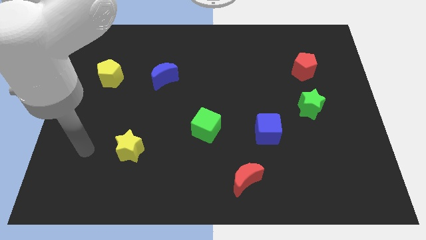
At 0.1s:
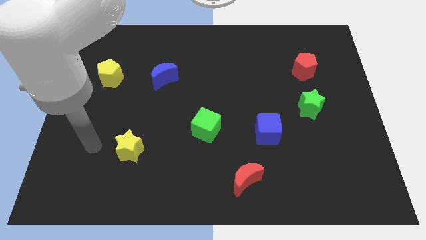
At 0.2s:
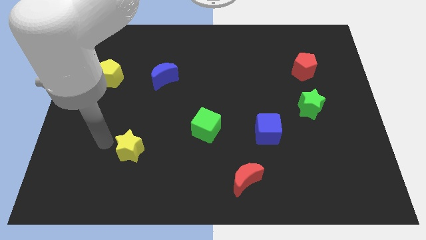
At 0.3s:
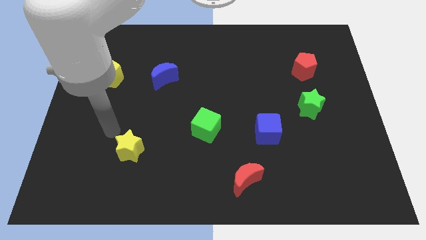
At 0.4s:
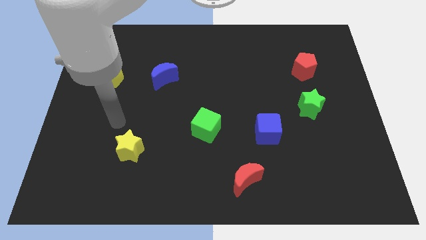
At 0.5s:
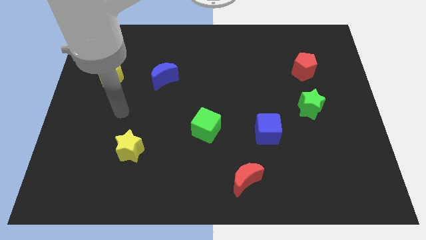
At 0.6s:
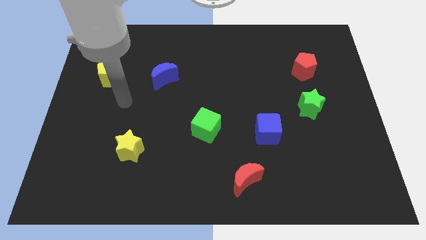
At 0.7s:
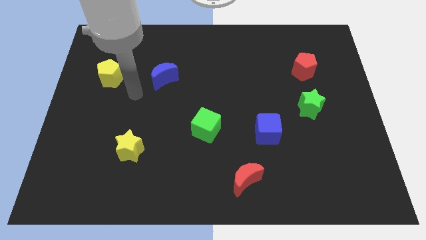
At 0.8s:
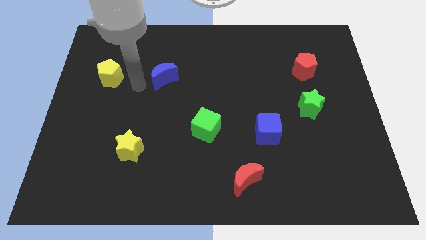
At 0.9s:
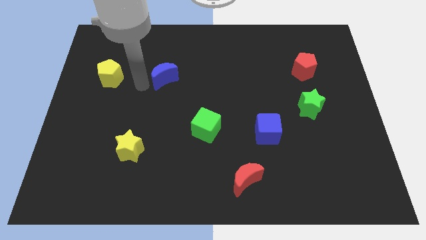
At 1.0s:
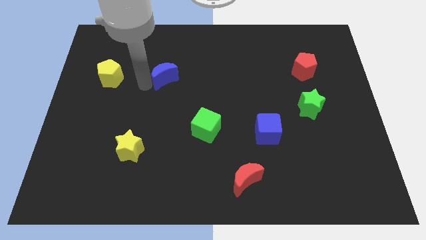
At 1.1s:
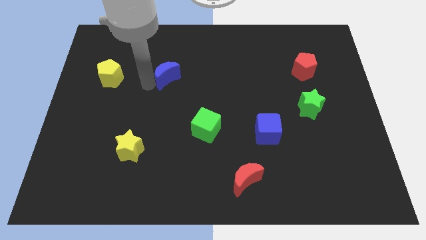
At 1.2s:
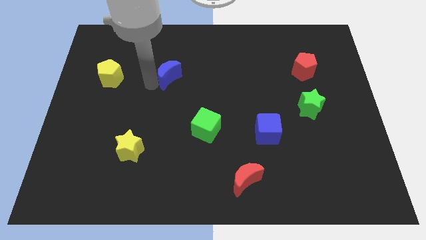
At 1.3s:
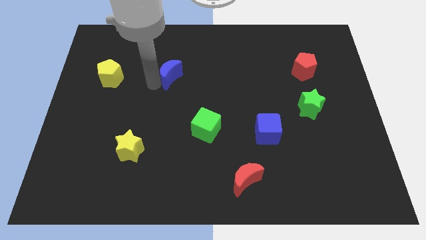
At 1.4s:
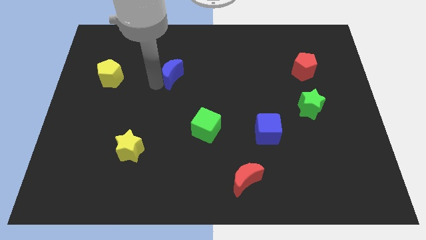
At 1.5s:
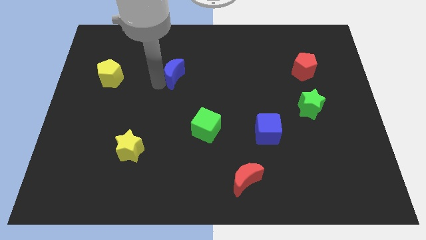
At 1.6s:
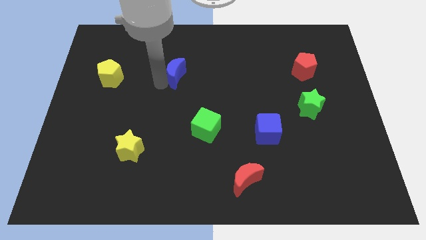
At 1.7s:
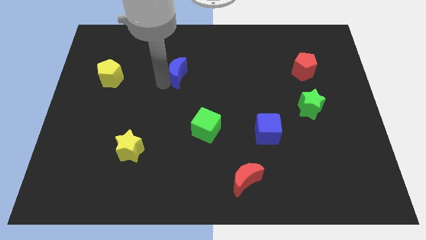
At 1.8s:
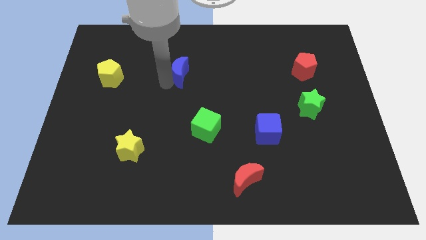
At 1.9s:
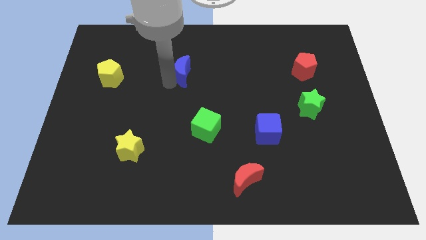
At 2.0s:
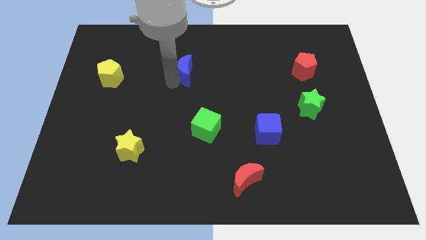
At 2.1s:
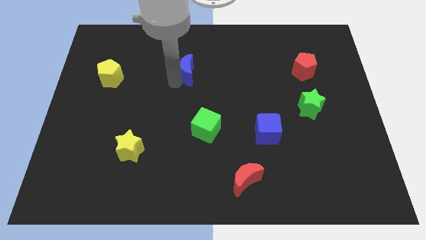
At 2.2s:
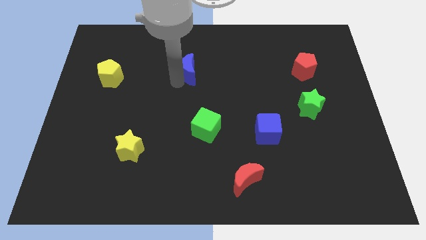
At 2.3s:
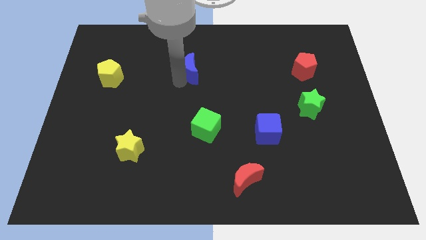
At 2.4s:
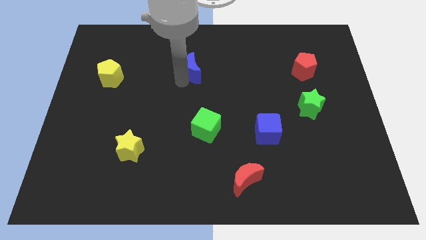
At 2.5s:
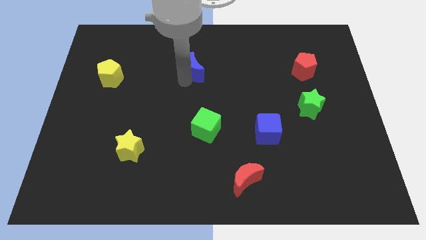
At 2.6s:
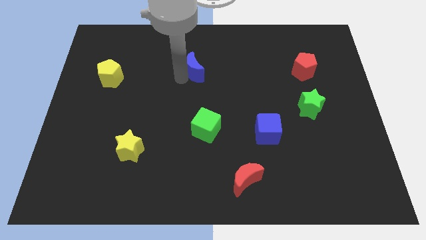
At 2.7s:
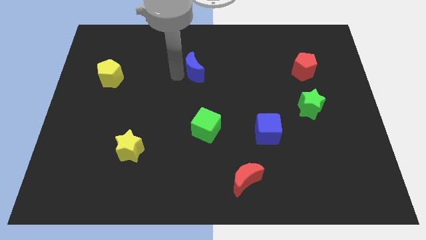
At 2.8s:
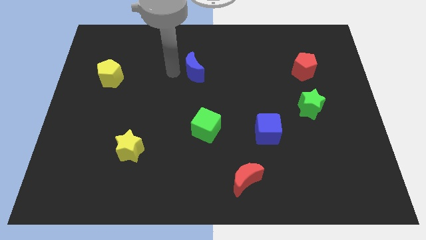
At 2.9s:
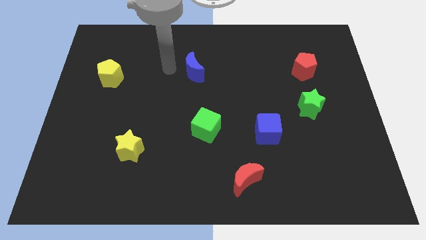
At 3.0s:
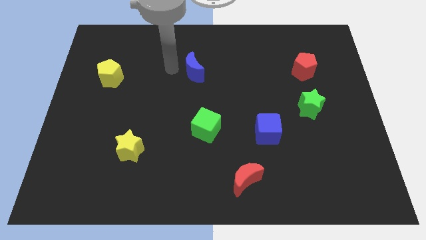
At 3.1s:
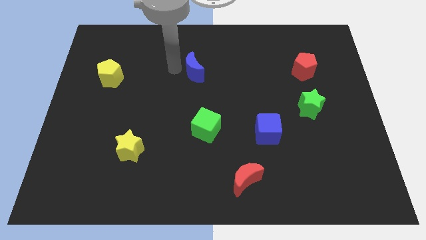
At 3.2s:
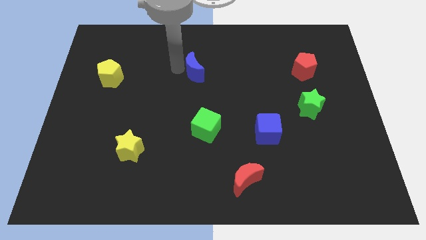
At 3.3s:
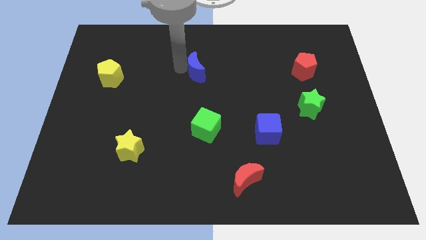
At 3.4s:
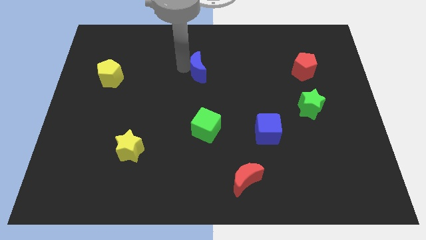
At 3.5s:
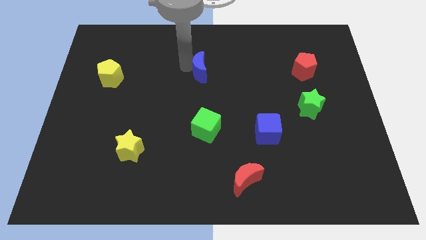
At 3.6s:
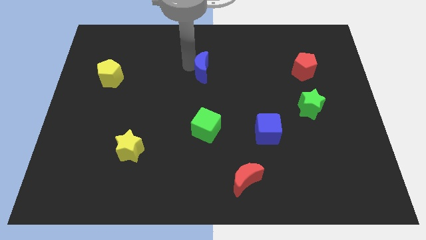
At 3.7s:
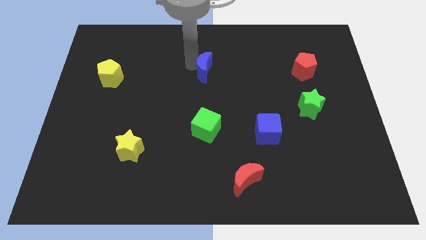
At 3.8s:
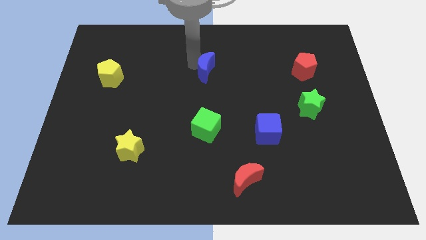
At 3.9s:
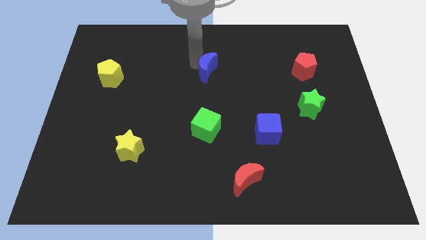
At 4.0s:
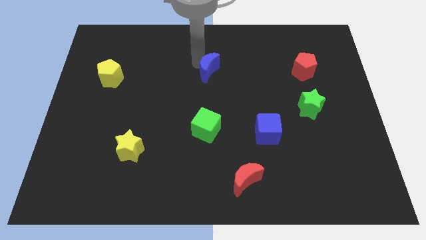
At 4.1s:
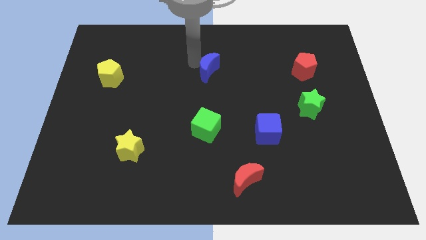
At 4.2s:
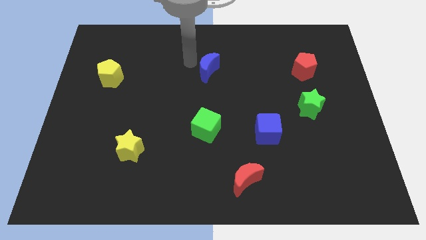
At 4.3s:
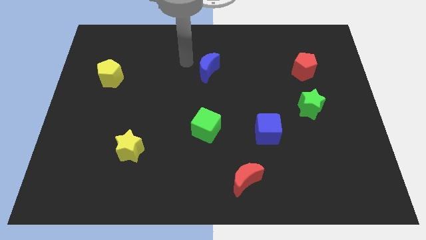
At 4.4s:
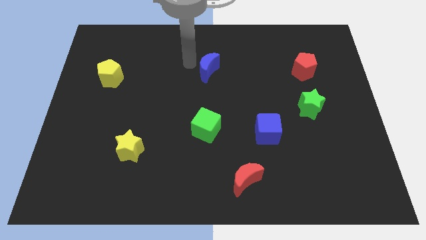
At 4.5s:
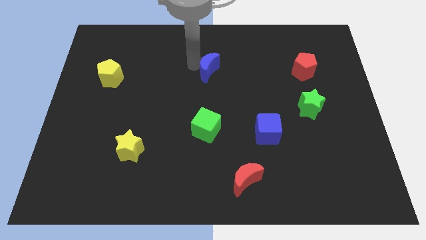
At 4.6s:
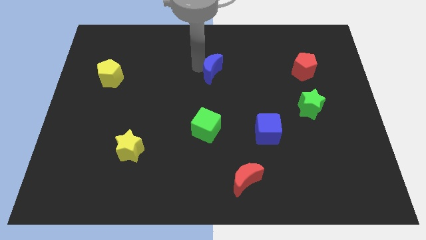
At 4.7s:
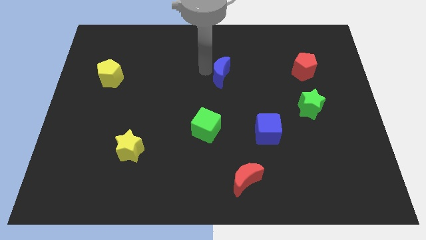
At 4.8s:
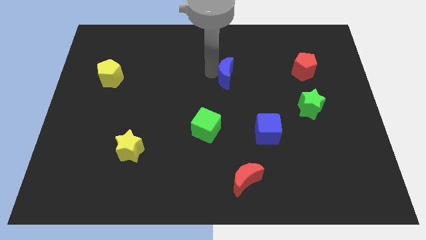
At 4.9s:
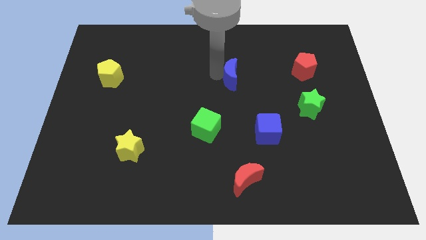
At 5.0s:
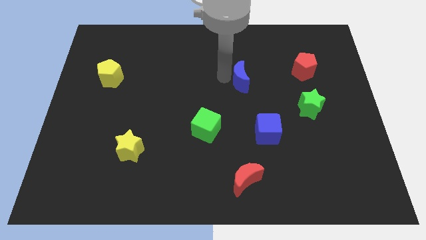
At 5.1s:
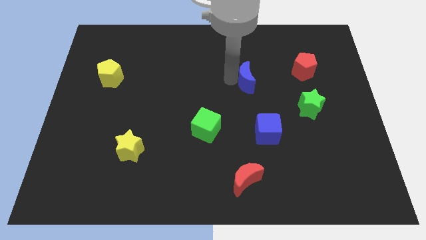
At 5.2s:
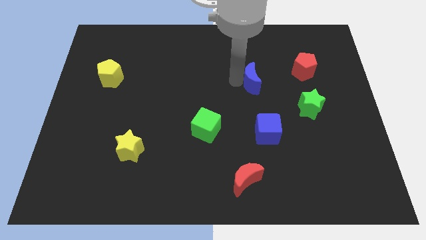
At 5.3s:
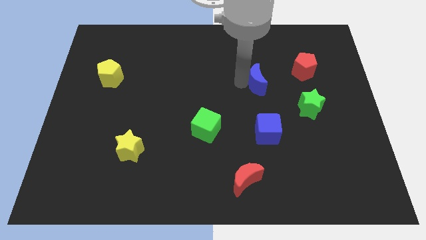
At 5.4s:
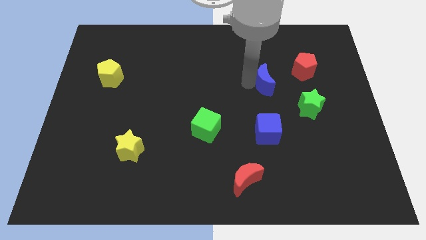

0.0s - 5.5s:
put the blue moon to the bottom left of the red pentagon

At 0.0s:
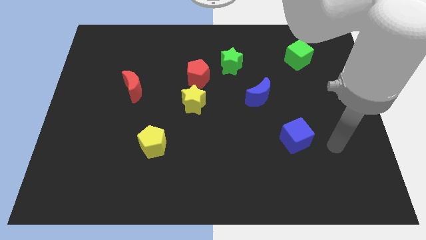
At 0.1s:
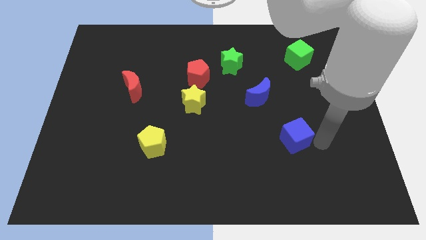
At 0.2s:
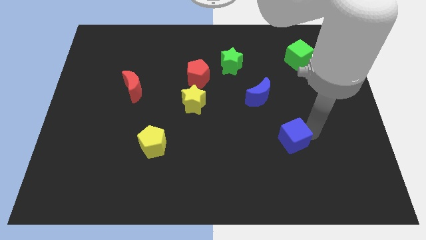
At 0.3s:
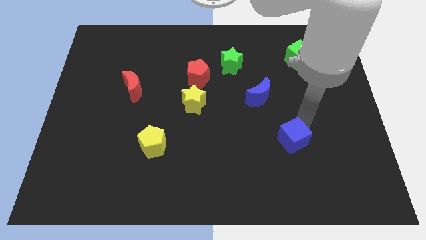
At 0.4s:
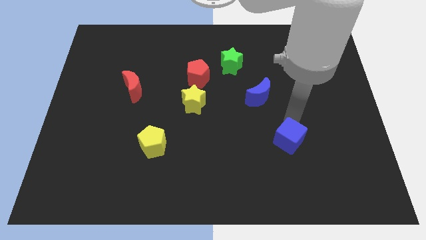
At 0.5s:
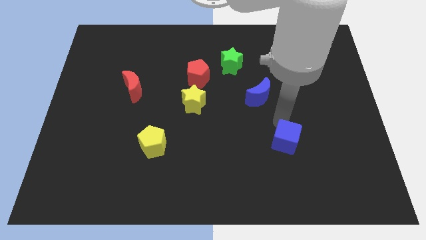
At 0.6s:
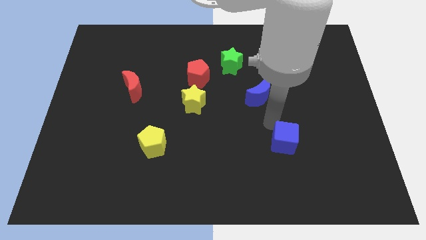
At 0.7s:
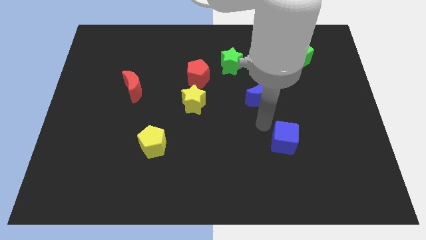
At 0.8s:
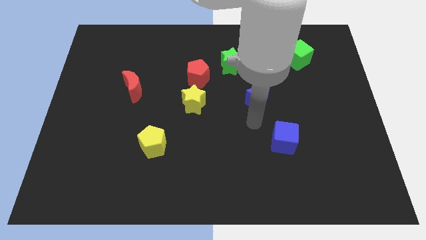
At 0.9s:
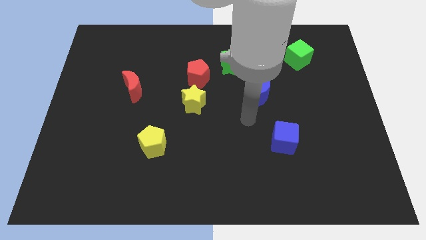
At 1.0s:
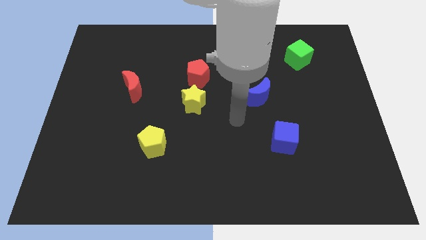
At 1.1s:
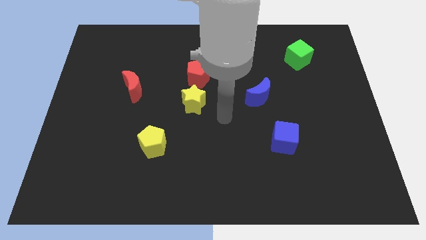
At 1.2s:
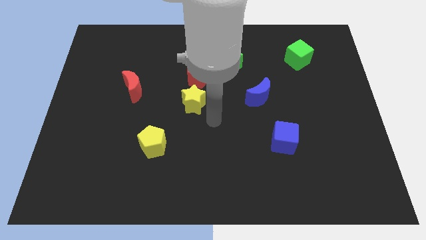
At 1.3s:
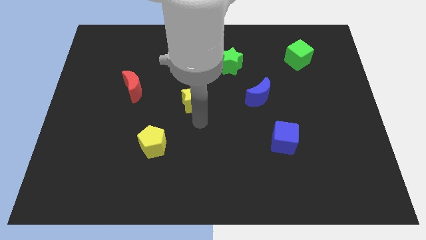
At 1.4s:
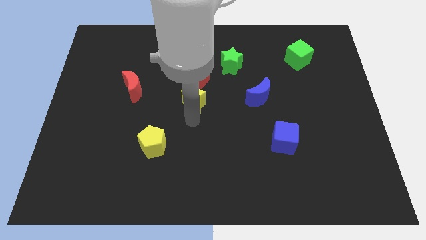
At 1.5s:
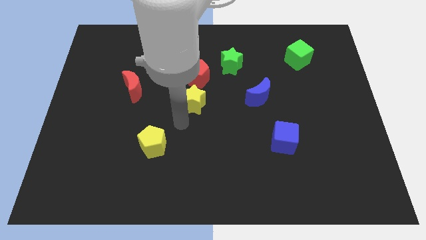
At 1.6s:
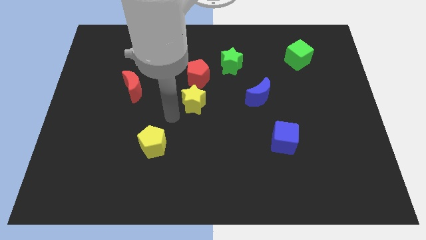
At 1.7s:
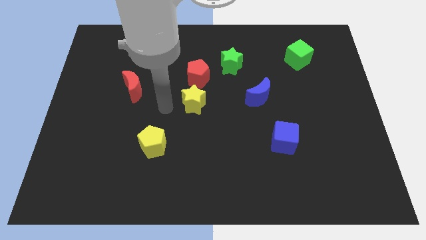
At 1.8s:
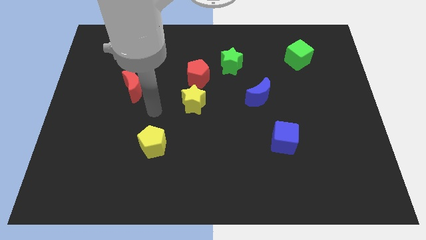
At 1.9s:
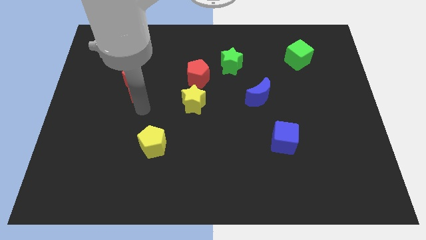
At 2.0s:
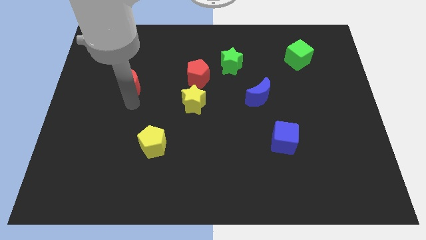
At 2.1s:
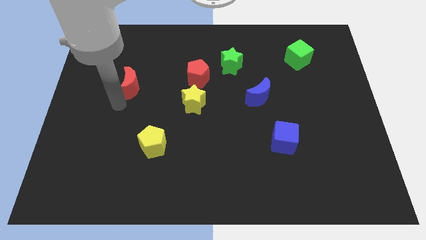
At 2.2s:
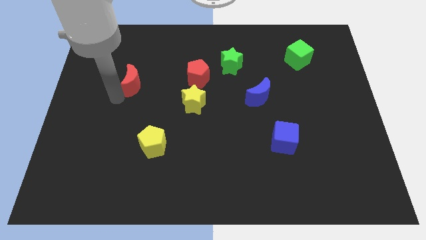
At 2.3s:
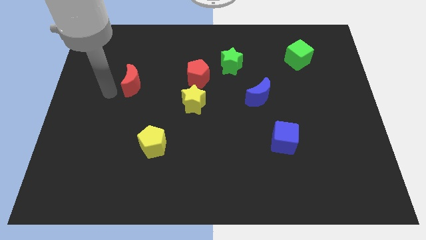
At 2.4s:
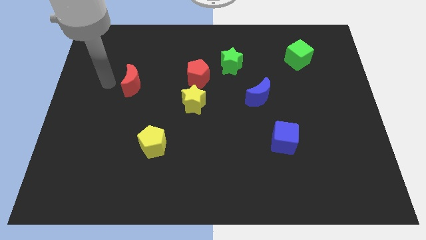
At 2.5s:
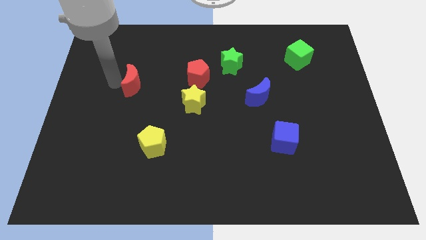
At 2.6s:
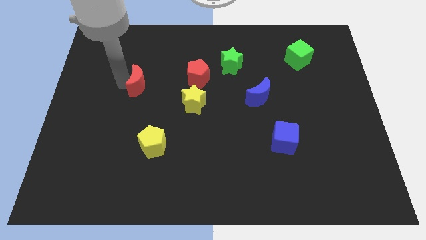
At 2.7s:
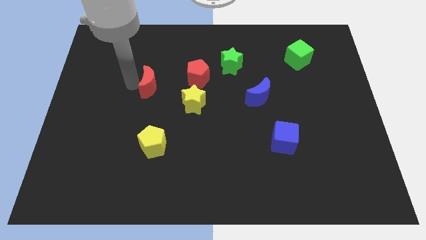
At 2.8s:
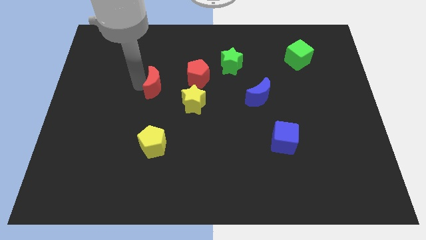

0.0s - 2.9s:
put the red moon to the top left side of the yellow star
